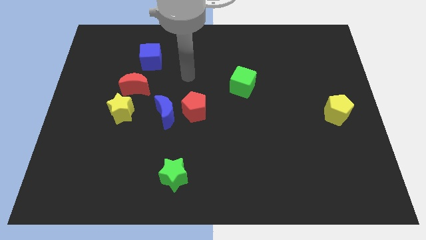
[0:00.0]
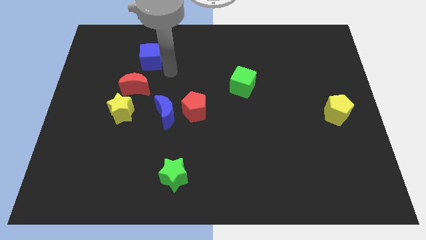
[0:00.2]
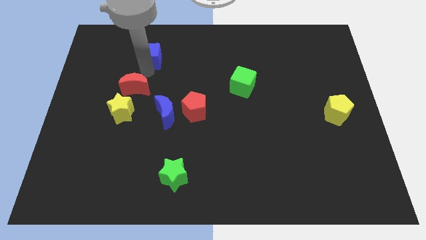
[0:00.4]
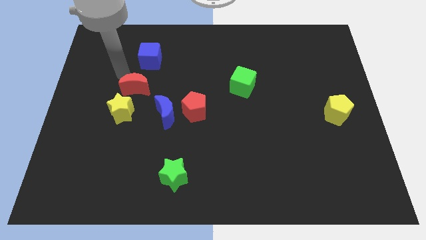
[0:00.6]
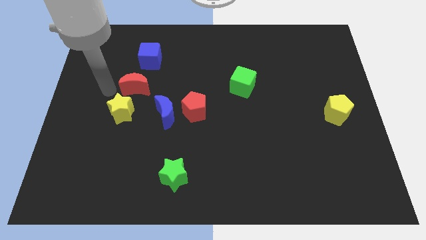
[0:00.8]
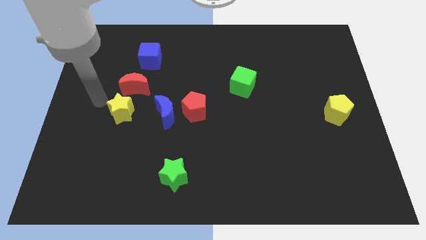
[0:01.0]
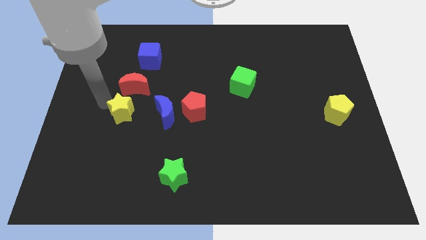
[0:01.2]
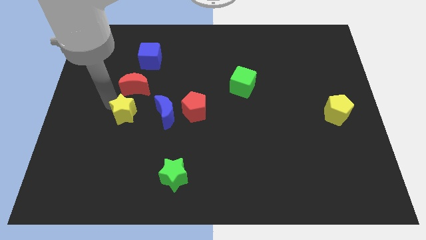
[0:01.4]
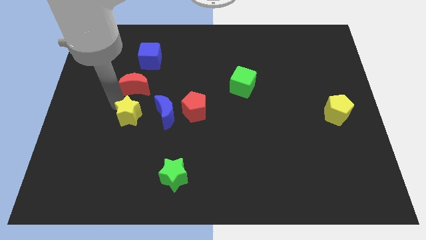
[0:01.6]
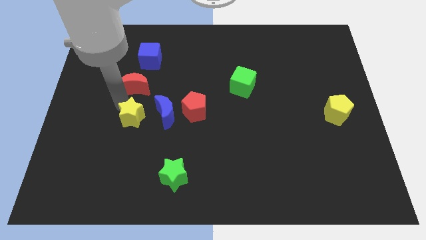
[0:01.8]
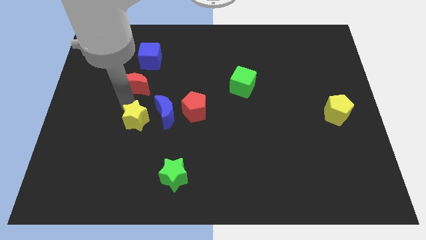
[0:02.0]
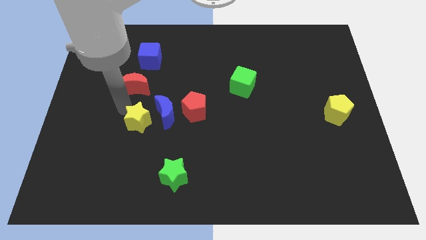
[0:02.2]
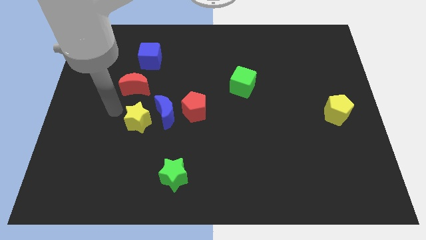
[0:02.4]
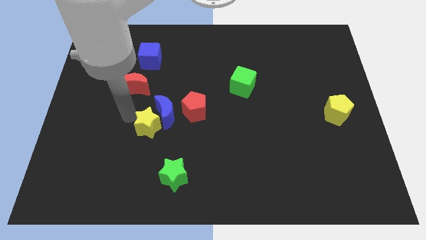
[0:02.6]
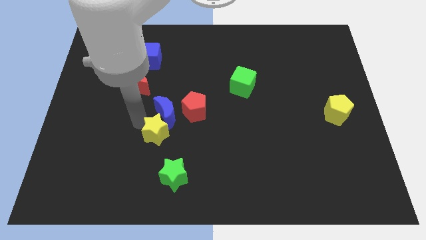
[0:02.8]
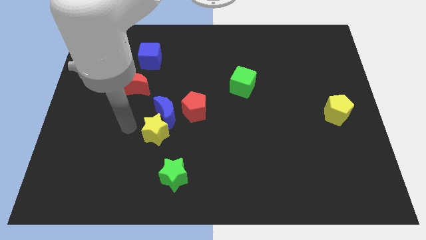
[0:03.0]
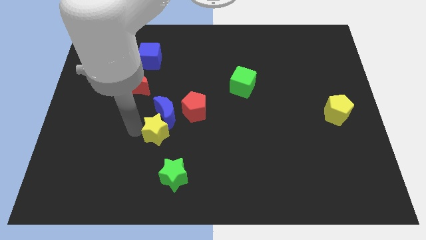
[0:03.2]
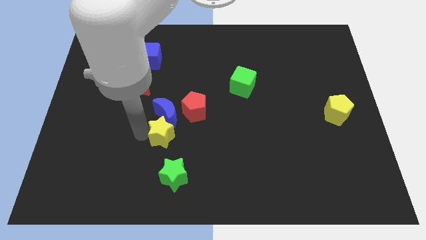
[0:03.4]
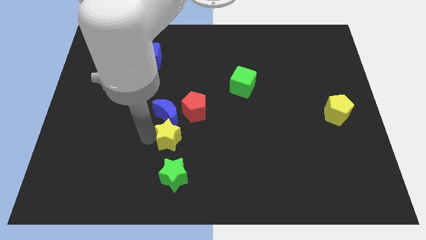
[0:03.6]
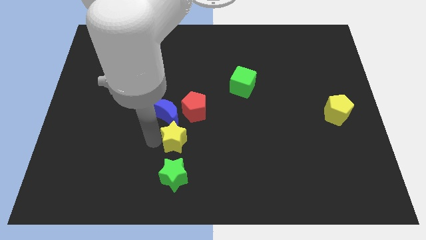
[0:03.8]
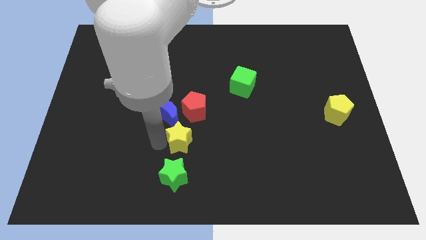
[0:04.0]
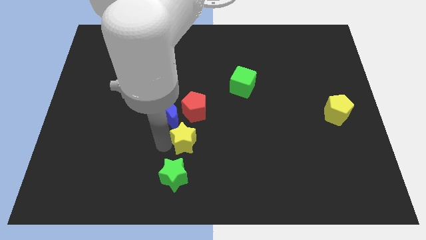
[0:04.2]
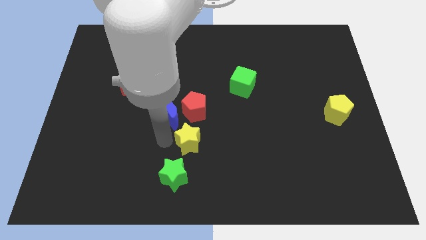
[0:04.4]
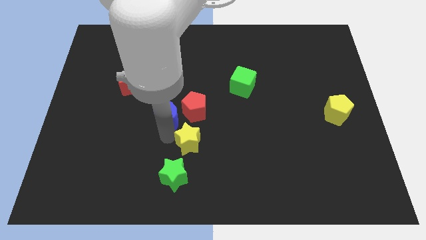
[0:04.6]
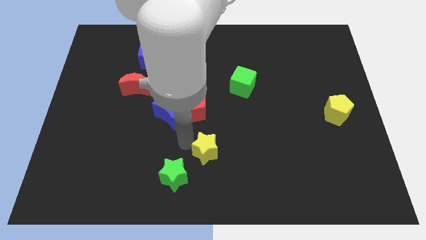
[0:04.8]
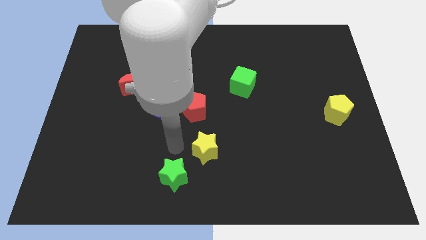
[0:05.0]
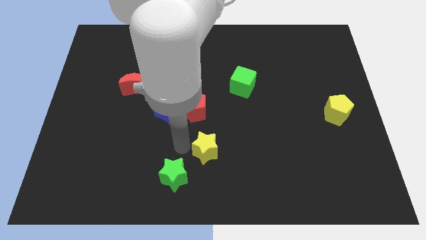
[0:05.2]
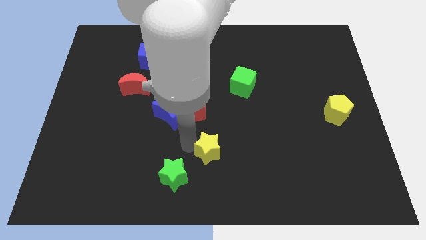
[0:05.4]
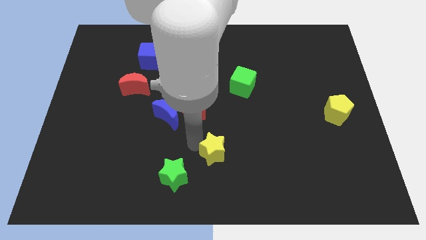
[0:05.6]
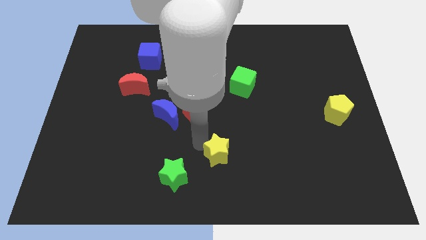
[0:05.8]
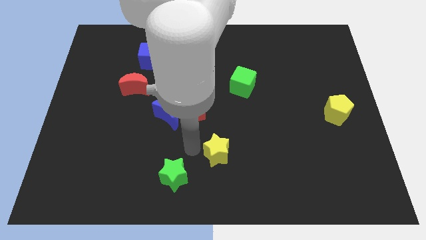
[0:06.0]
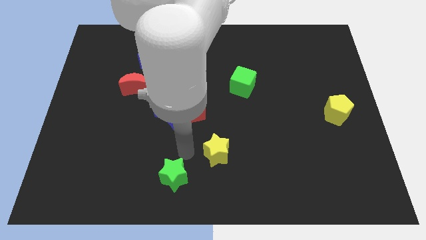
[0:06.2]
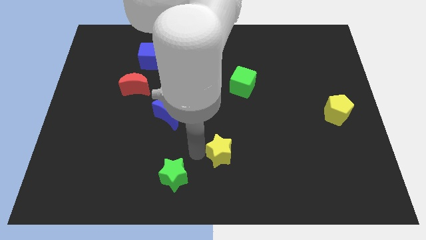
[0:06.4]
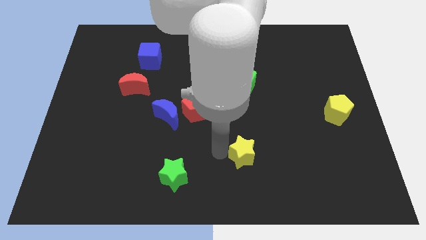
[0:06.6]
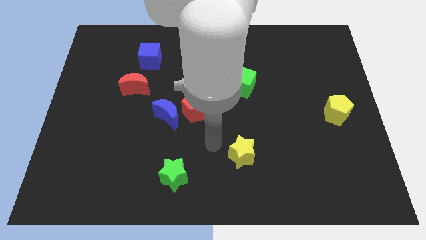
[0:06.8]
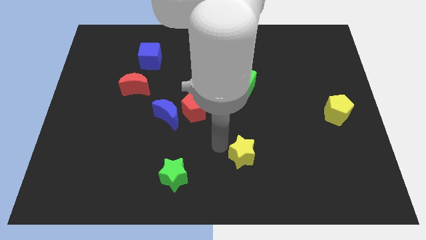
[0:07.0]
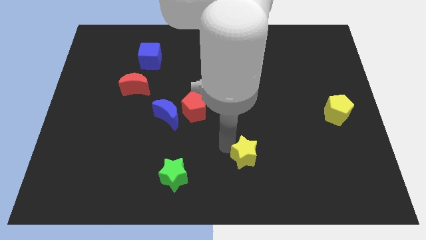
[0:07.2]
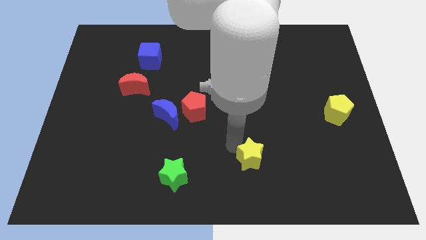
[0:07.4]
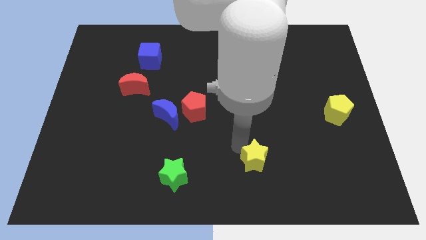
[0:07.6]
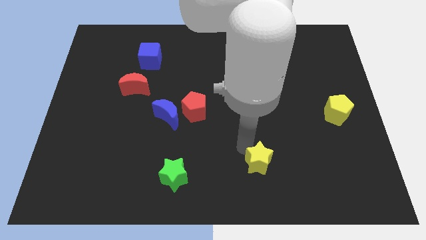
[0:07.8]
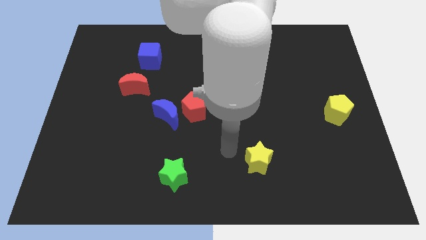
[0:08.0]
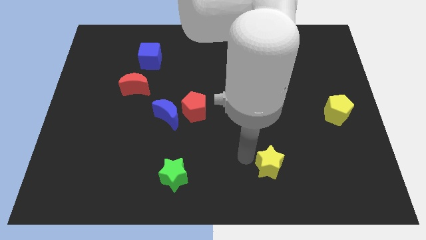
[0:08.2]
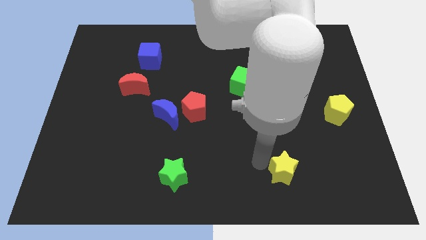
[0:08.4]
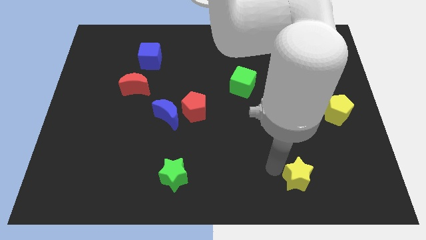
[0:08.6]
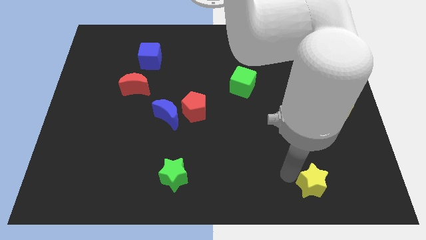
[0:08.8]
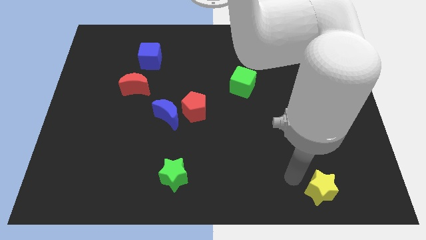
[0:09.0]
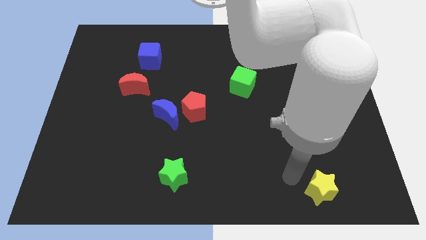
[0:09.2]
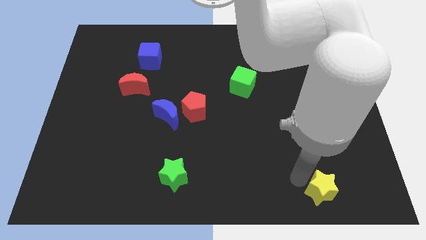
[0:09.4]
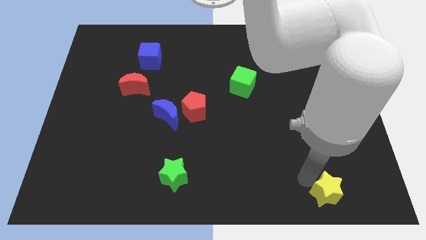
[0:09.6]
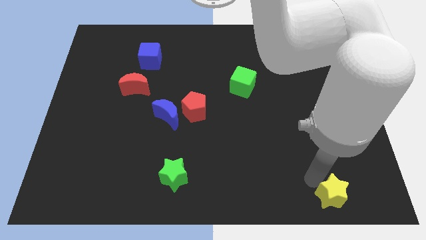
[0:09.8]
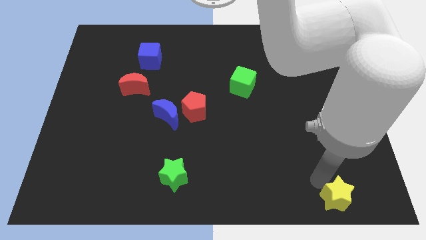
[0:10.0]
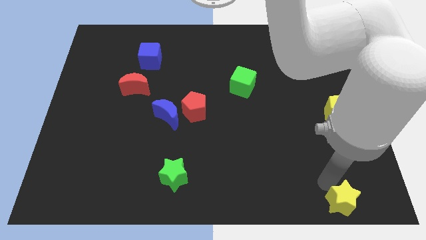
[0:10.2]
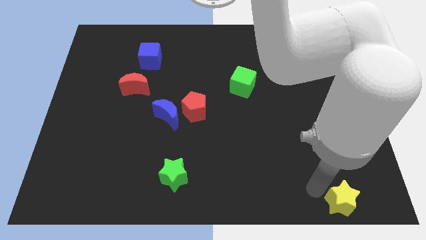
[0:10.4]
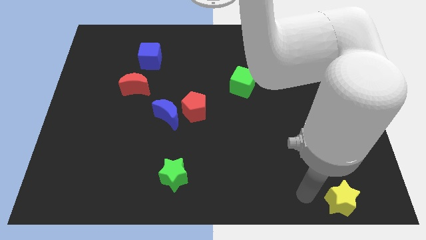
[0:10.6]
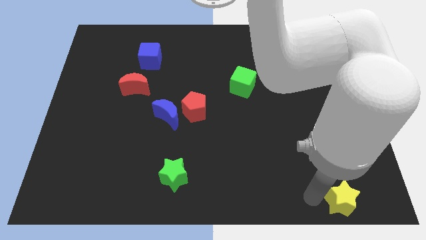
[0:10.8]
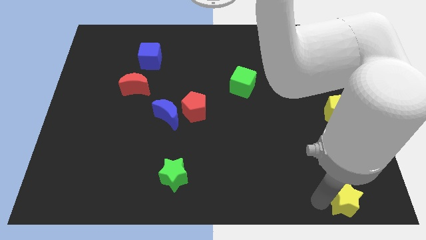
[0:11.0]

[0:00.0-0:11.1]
push the yellow star to the lower right corner

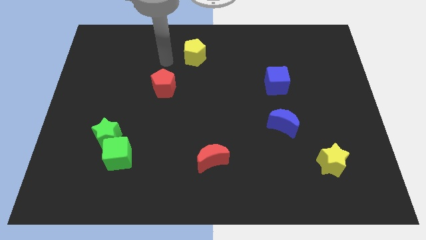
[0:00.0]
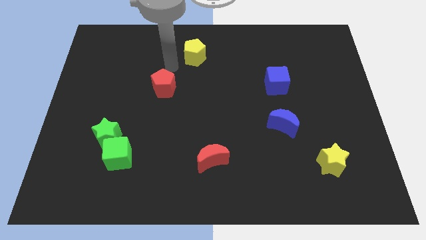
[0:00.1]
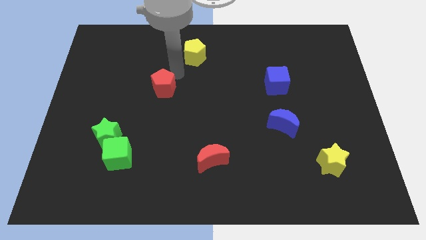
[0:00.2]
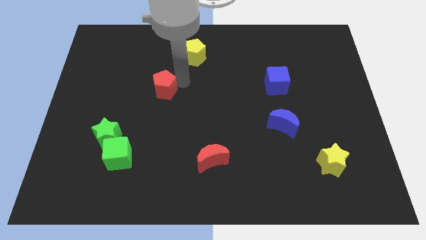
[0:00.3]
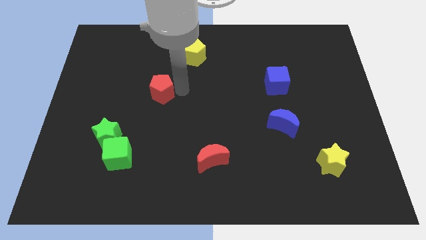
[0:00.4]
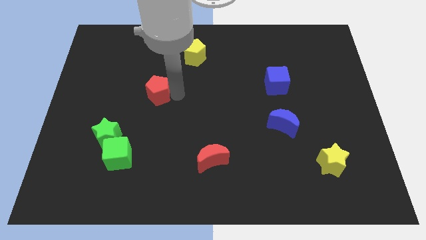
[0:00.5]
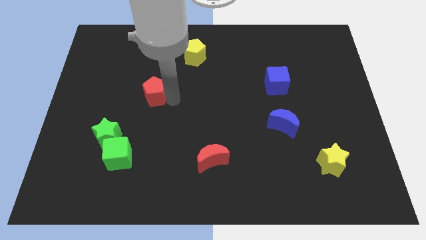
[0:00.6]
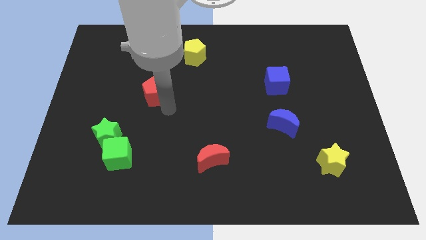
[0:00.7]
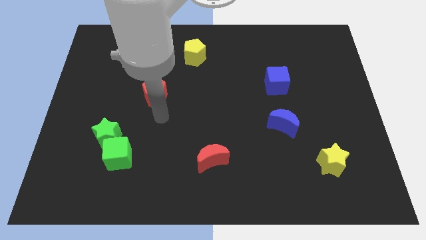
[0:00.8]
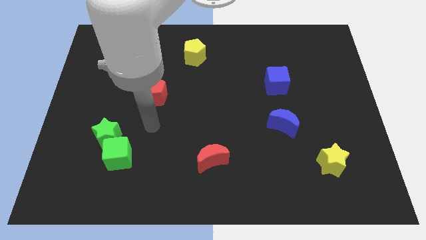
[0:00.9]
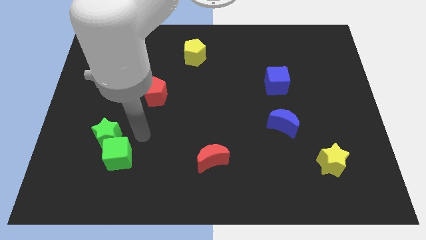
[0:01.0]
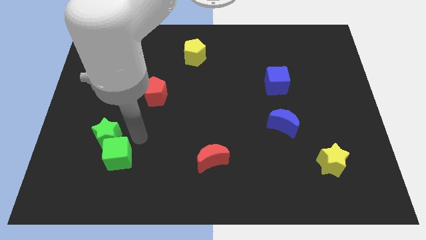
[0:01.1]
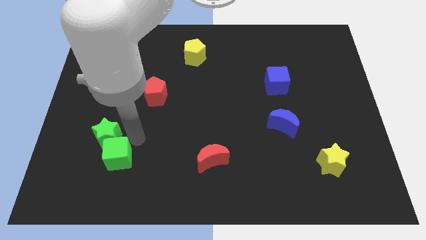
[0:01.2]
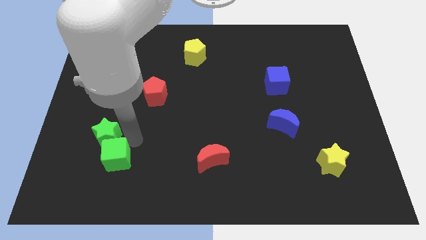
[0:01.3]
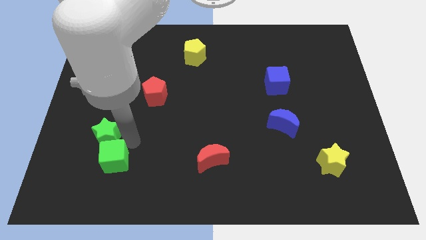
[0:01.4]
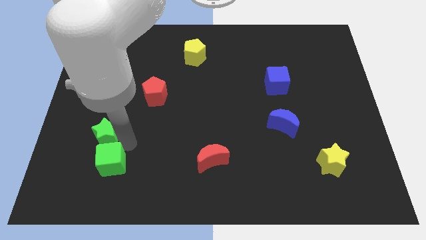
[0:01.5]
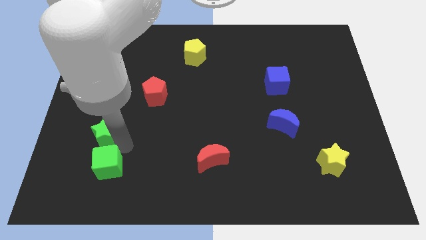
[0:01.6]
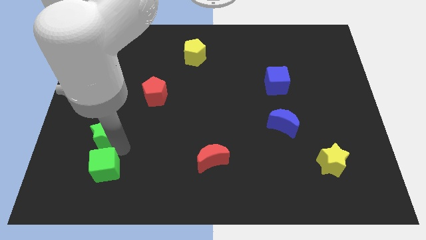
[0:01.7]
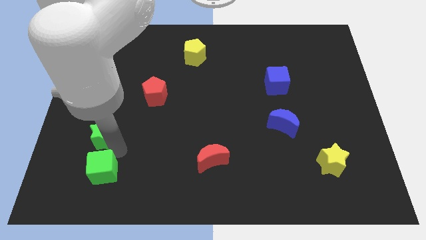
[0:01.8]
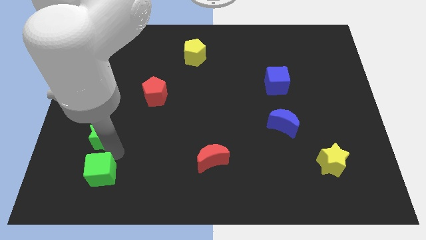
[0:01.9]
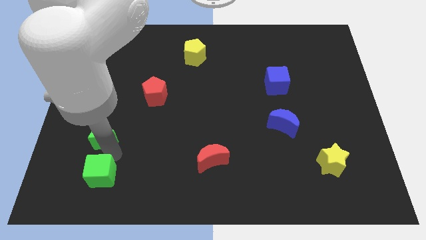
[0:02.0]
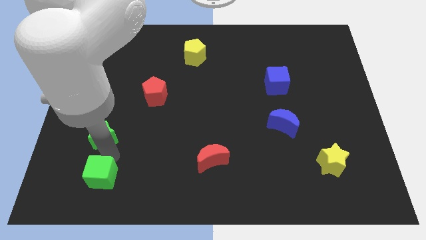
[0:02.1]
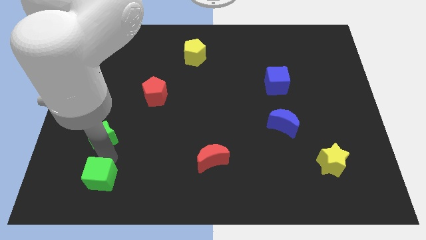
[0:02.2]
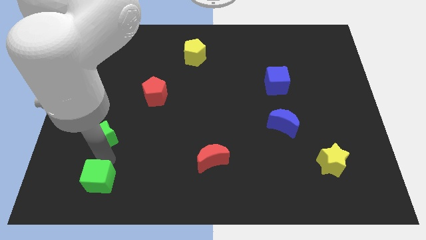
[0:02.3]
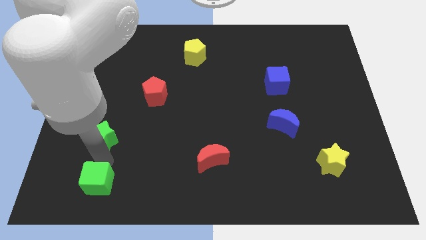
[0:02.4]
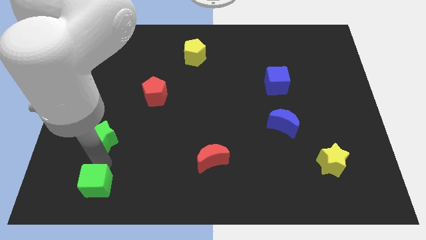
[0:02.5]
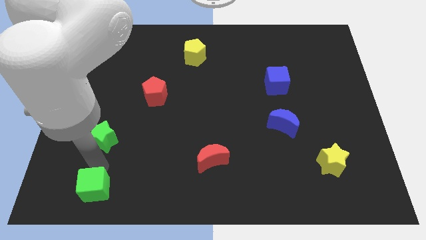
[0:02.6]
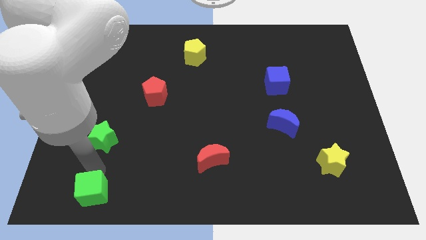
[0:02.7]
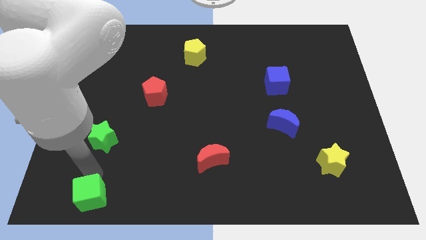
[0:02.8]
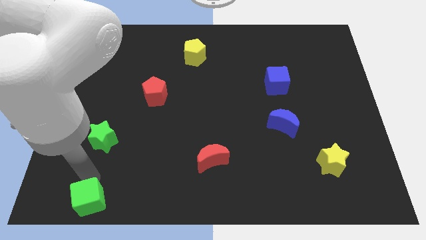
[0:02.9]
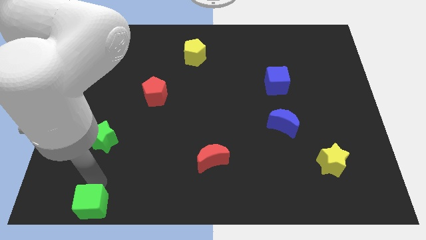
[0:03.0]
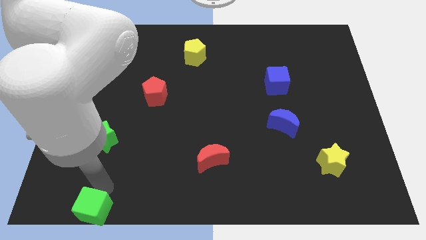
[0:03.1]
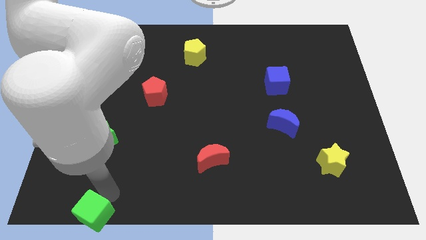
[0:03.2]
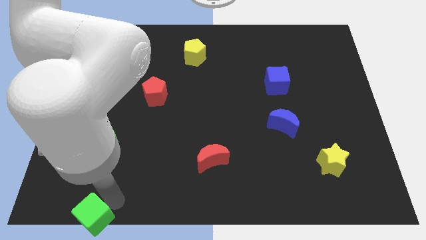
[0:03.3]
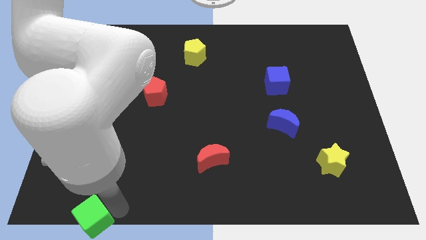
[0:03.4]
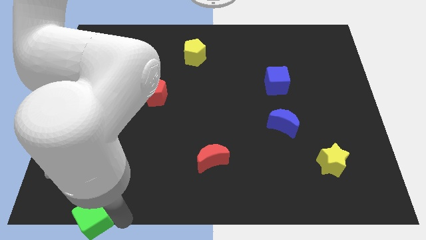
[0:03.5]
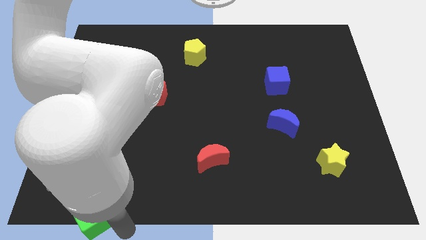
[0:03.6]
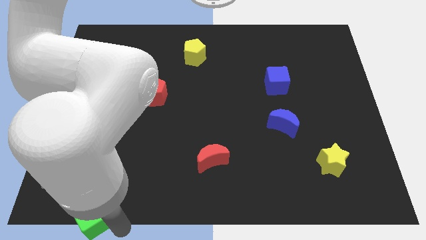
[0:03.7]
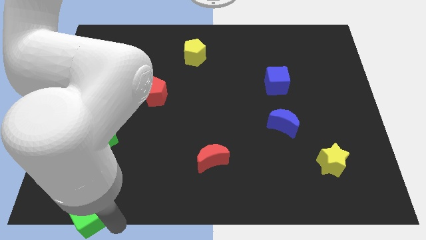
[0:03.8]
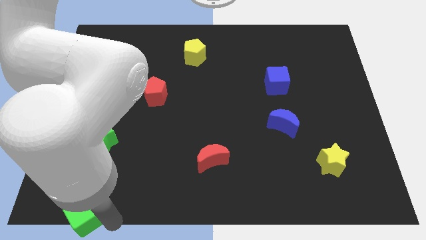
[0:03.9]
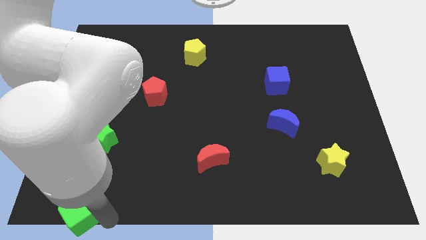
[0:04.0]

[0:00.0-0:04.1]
push the green cube to the bottom left of the board
